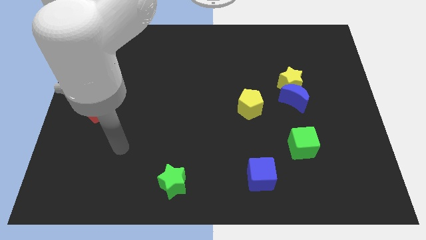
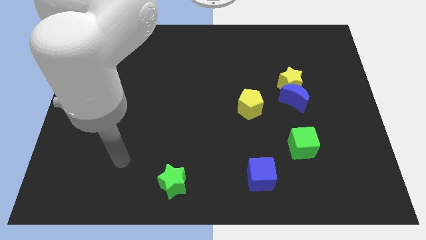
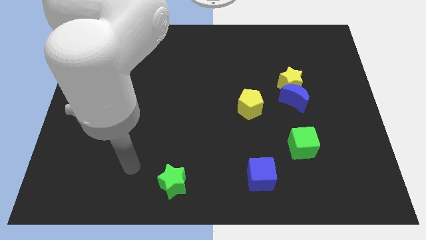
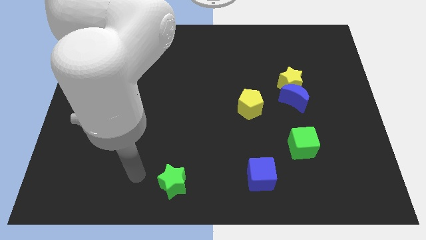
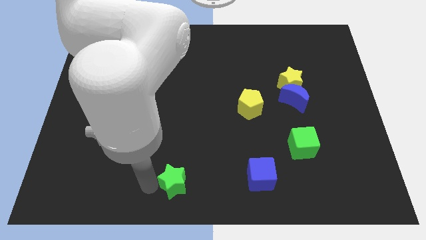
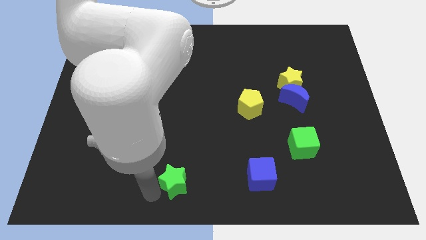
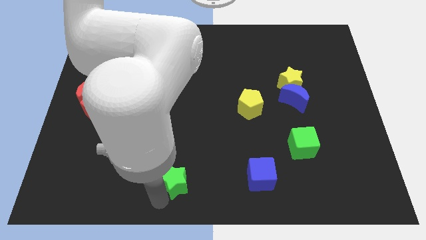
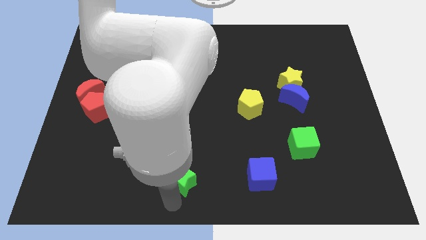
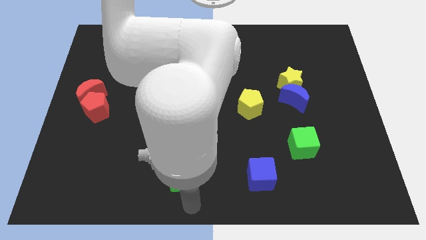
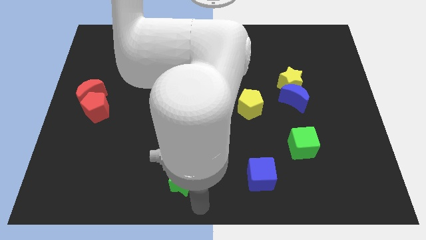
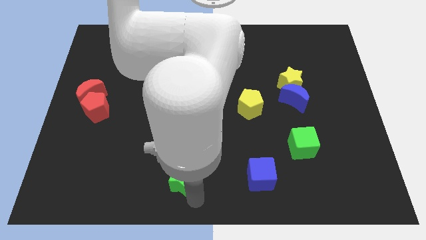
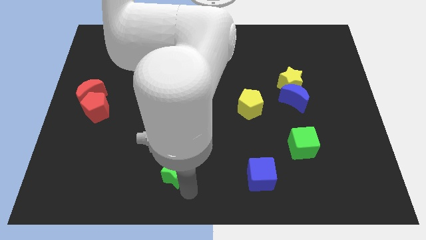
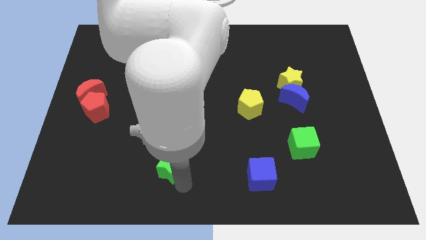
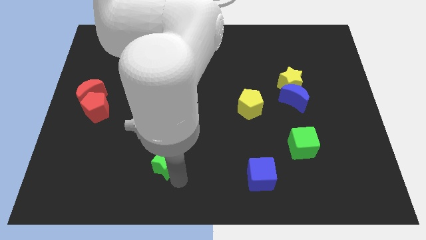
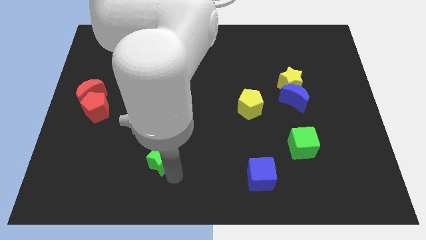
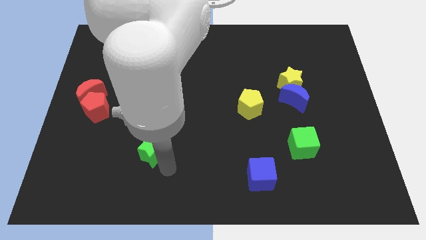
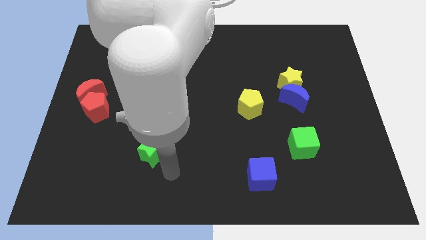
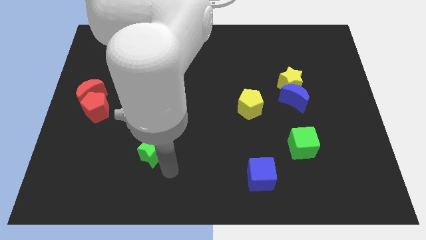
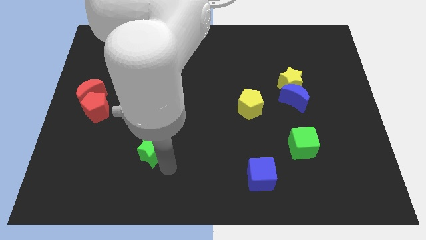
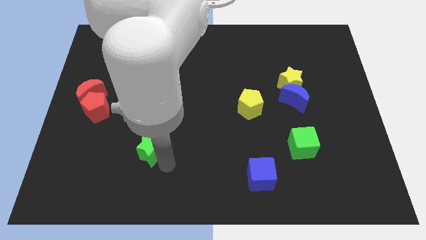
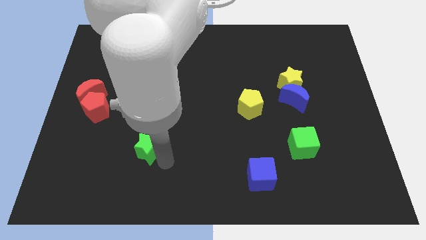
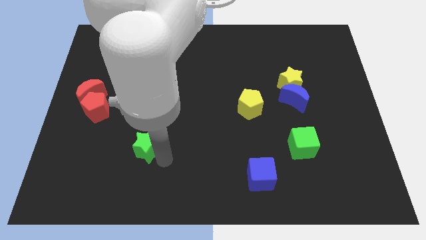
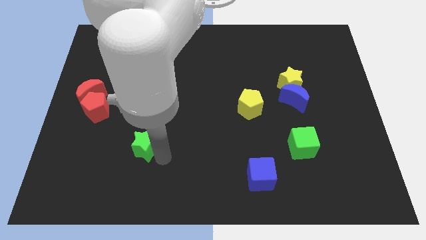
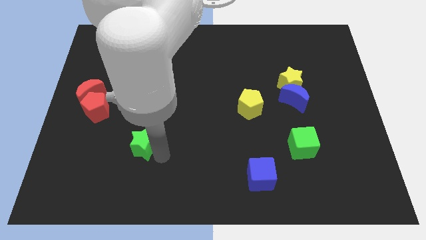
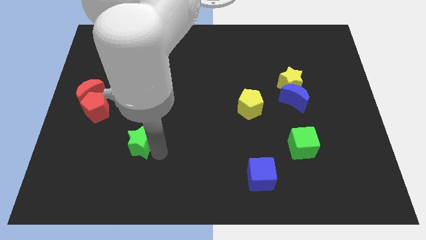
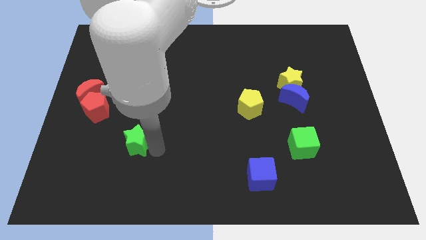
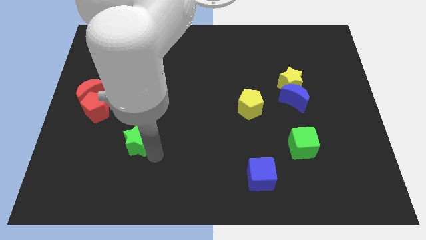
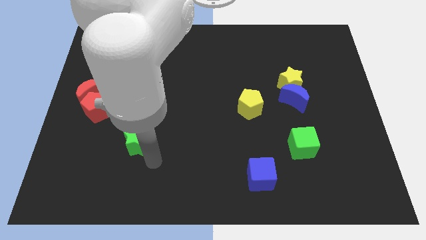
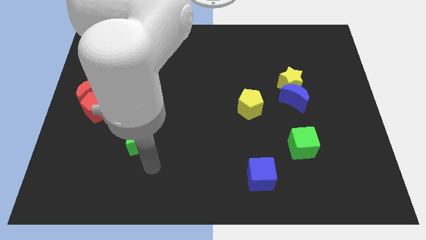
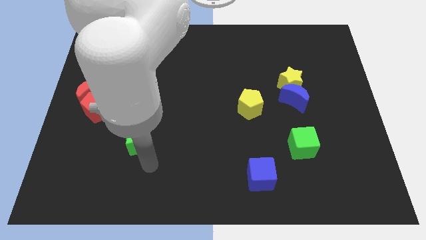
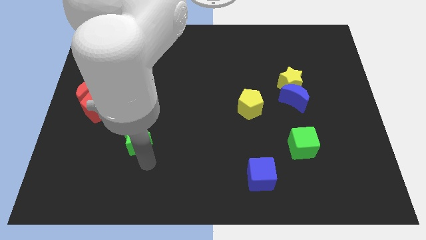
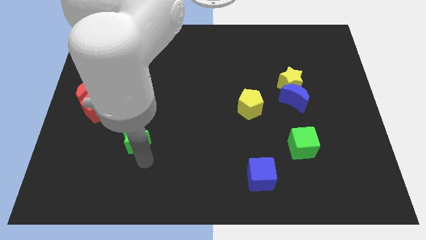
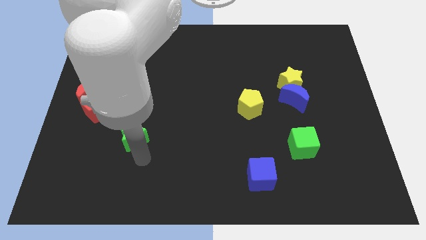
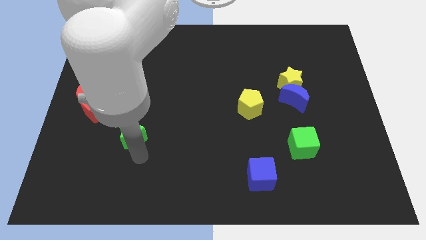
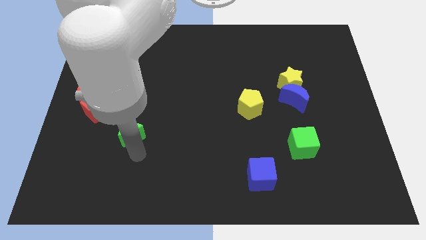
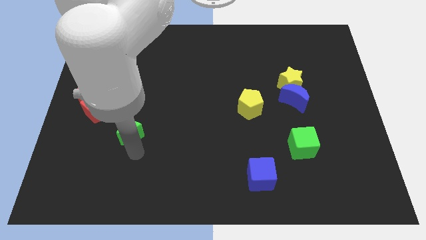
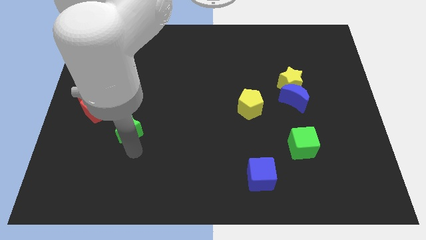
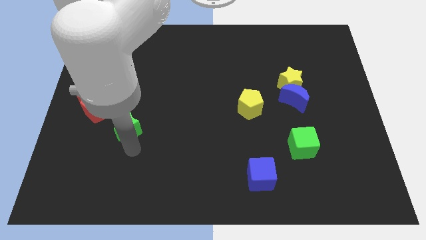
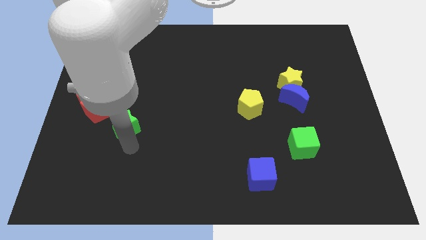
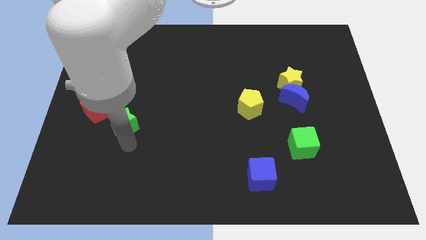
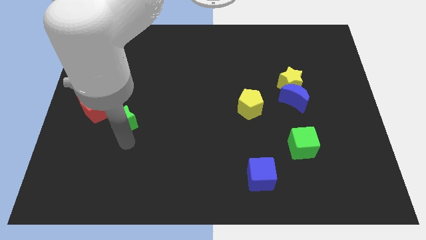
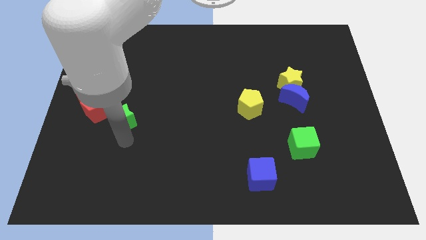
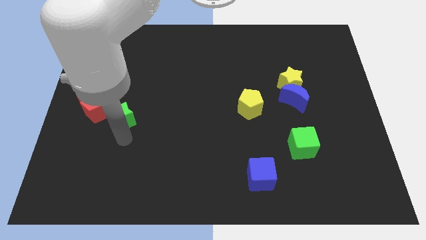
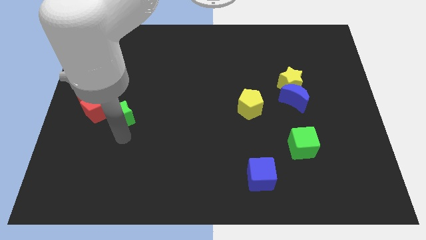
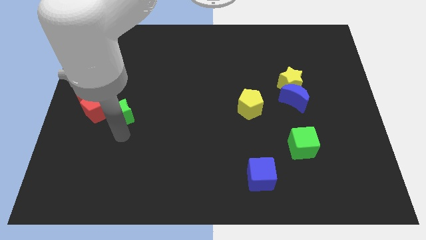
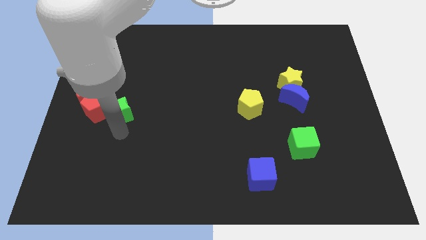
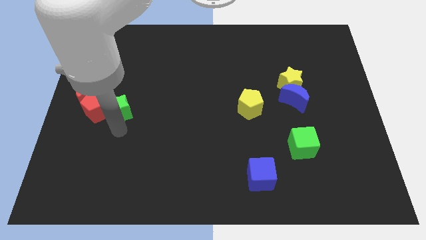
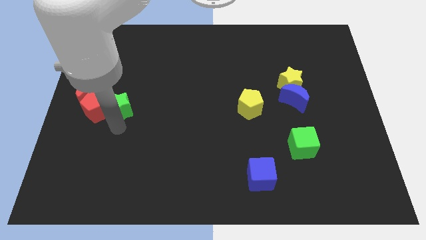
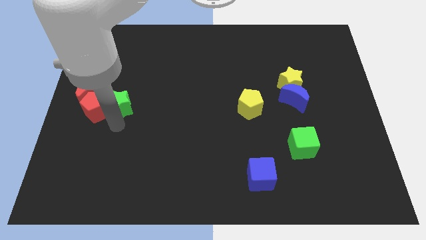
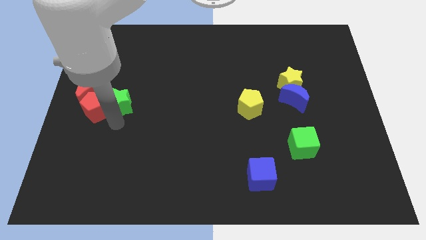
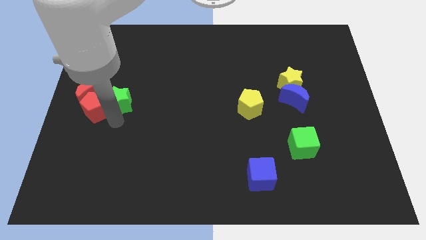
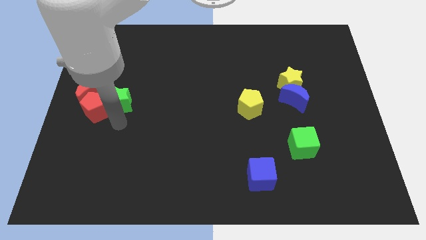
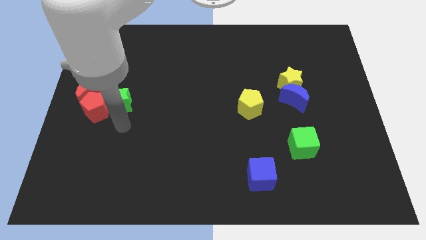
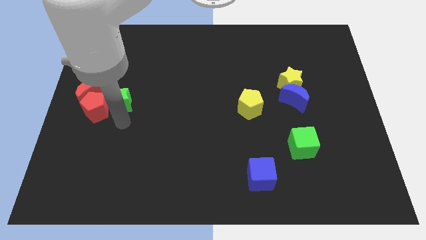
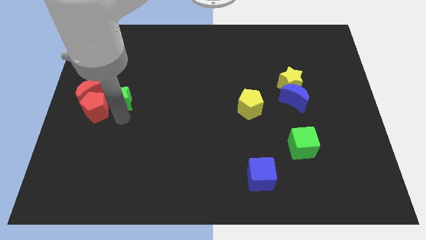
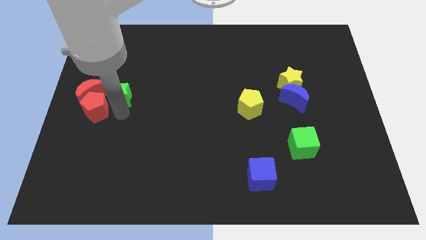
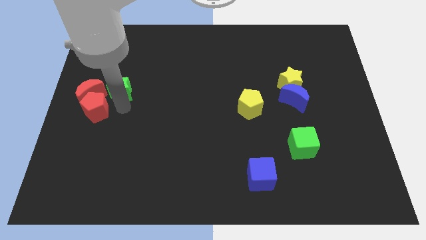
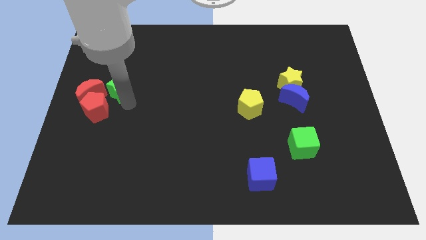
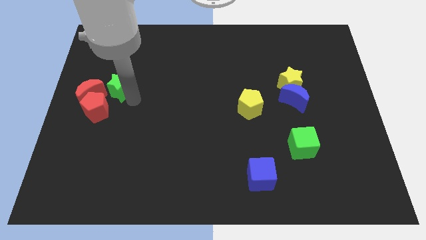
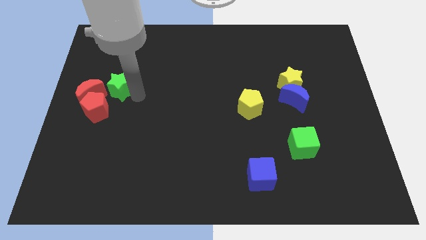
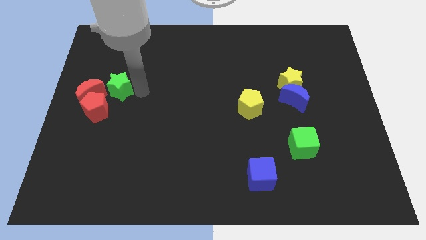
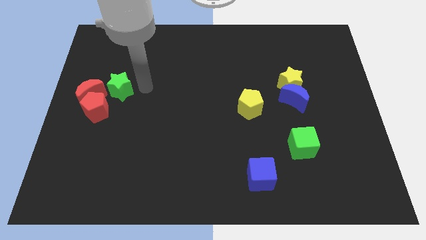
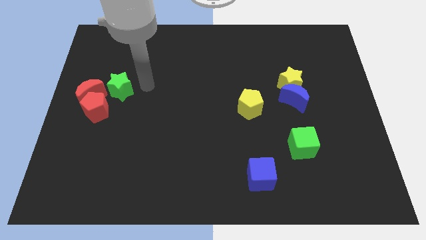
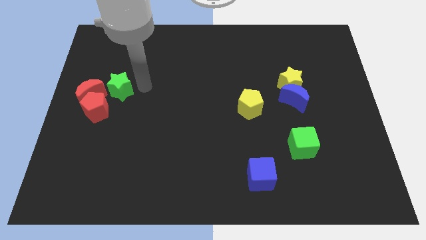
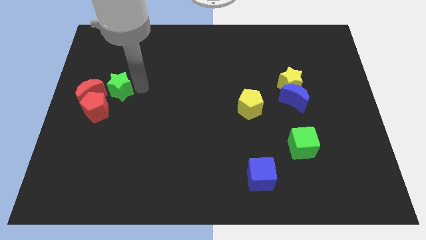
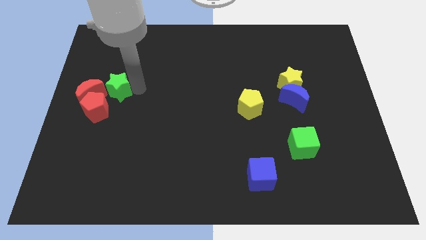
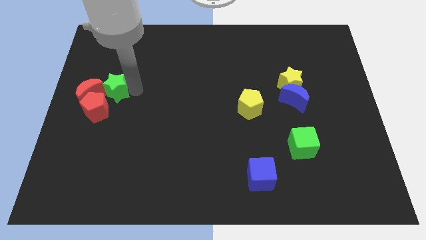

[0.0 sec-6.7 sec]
move the green star to the red moon
